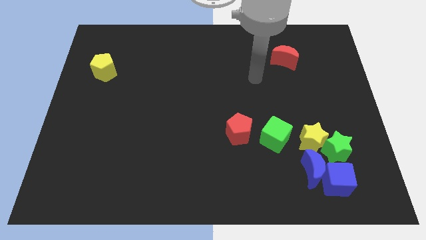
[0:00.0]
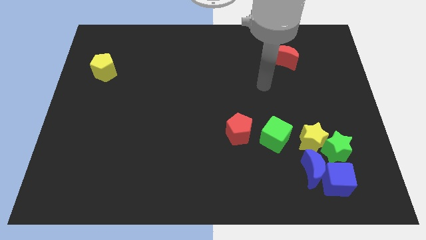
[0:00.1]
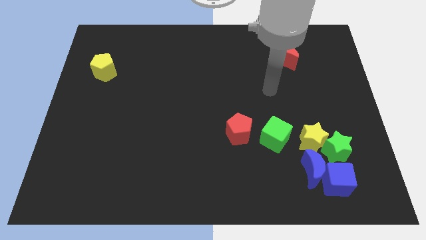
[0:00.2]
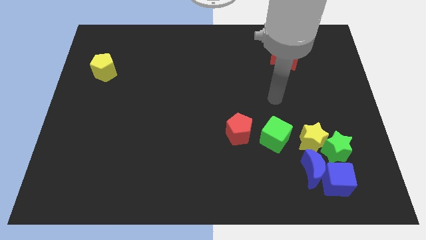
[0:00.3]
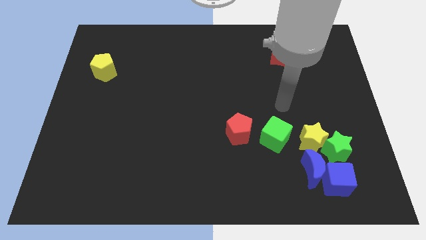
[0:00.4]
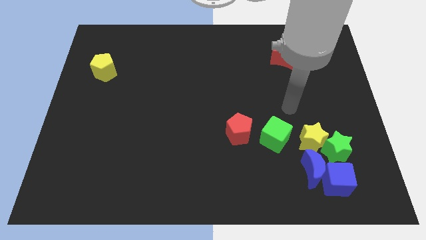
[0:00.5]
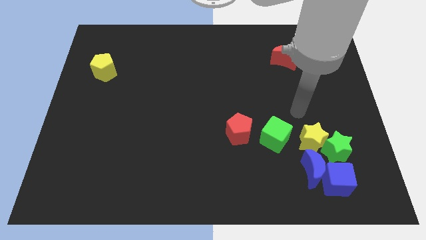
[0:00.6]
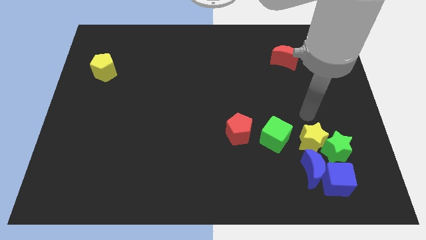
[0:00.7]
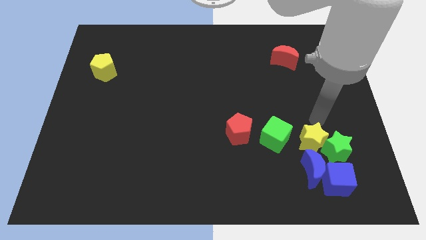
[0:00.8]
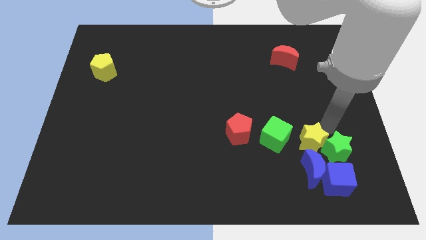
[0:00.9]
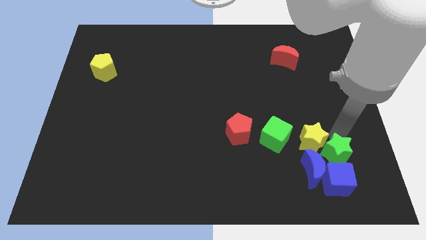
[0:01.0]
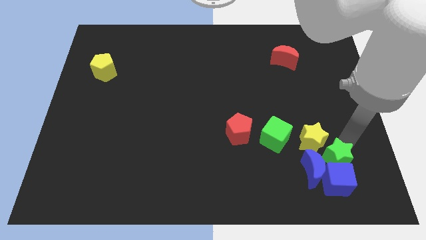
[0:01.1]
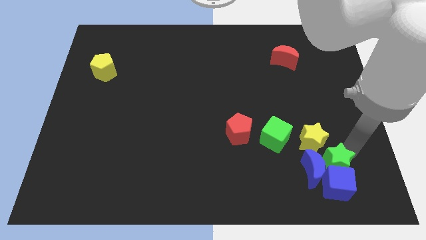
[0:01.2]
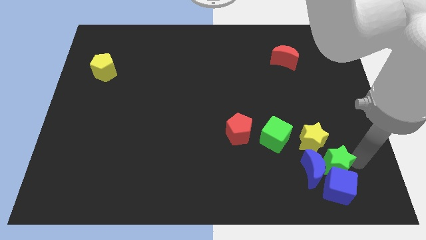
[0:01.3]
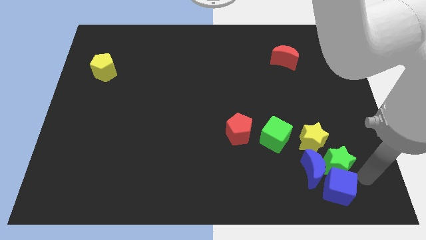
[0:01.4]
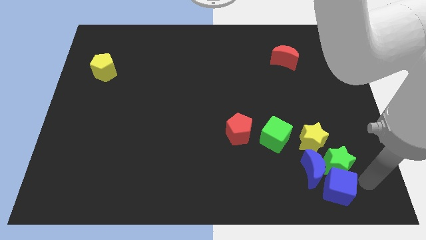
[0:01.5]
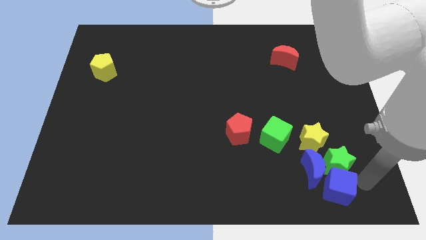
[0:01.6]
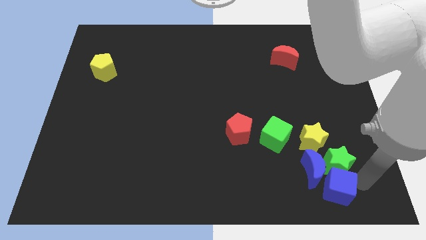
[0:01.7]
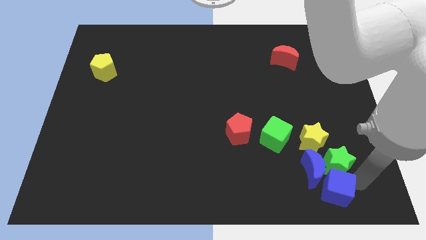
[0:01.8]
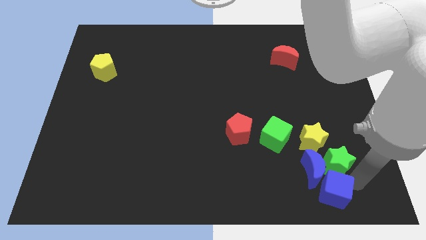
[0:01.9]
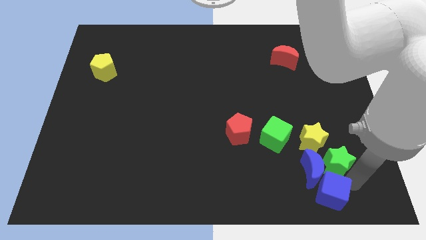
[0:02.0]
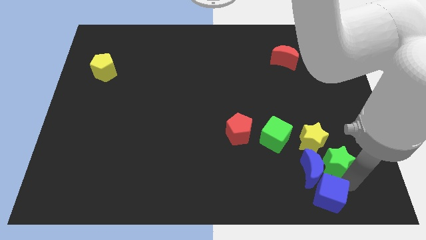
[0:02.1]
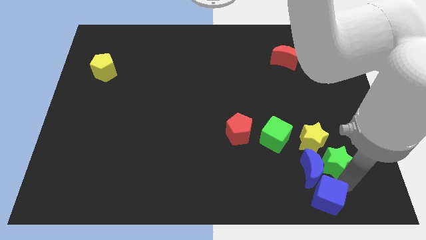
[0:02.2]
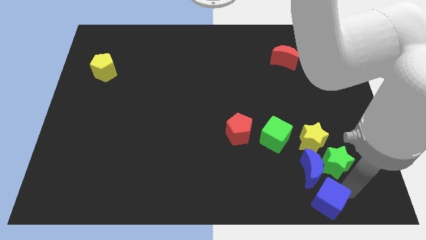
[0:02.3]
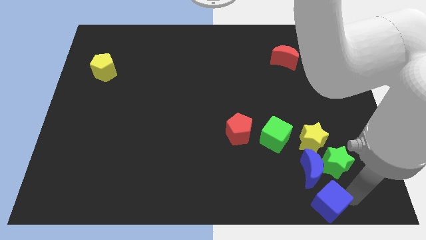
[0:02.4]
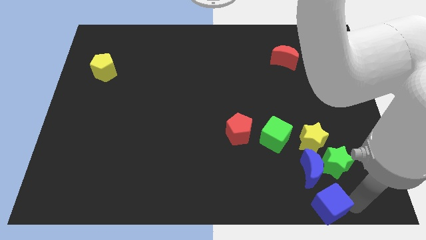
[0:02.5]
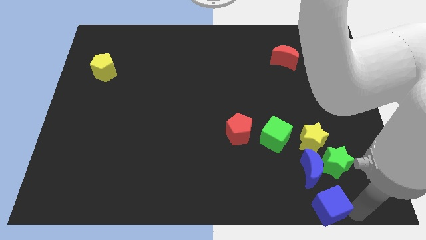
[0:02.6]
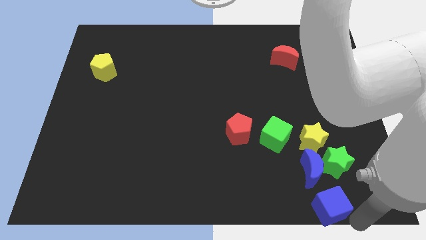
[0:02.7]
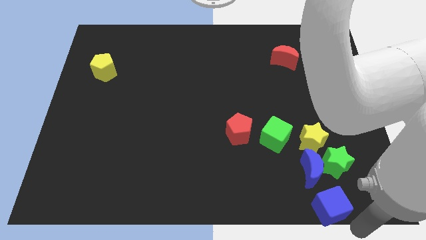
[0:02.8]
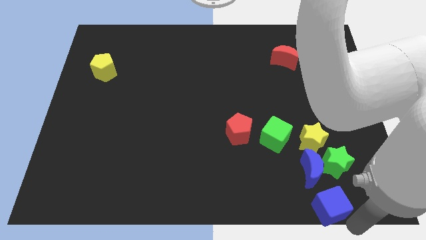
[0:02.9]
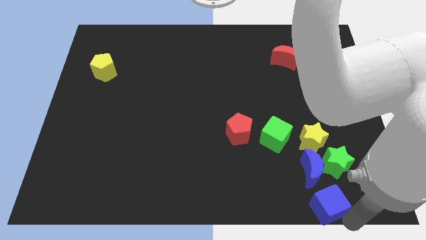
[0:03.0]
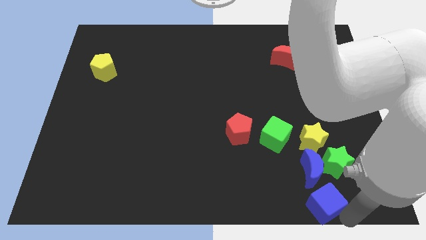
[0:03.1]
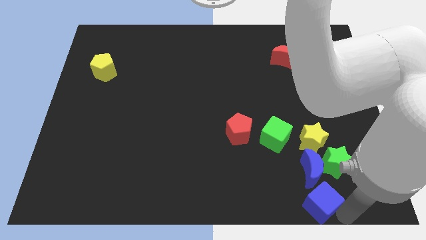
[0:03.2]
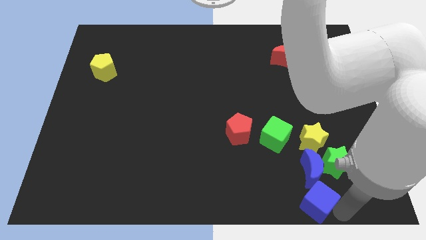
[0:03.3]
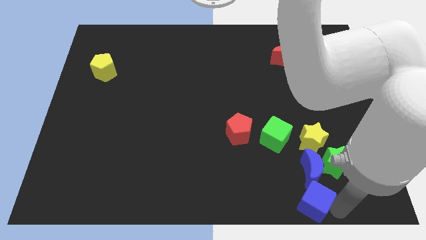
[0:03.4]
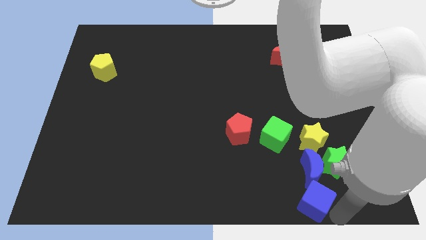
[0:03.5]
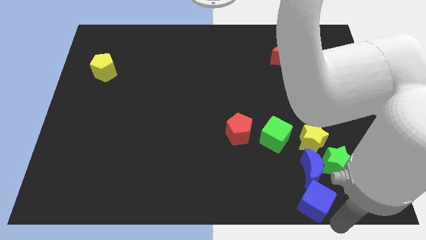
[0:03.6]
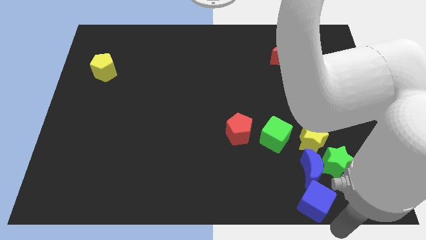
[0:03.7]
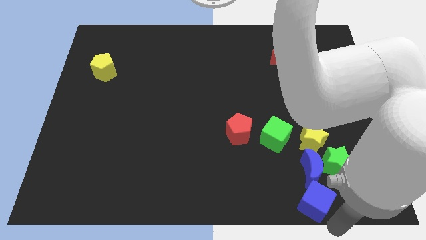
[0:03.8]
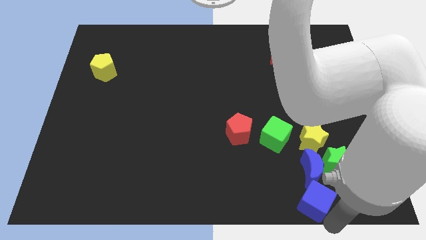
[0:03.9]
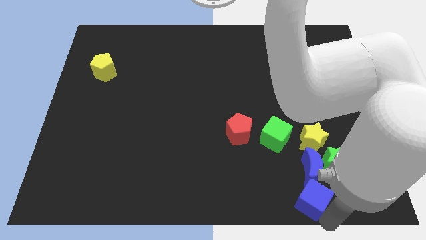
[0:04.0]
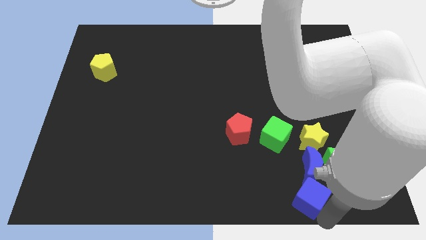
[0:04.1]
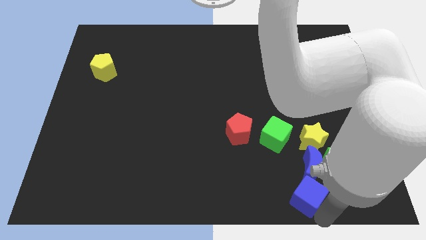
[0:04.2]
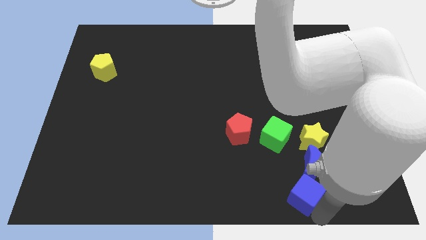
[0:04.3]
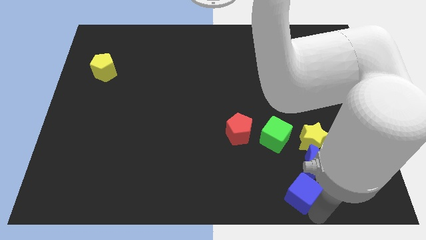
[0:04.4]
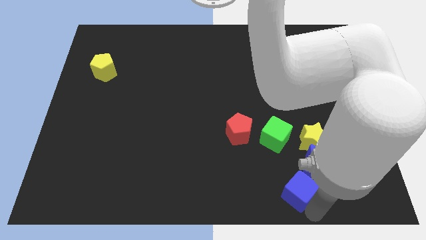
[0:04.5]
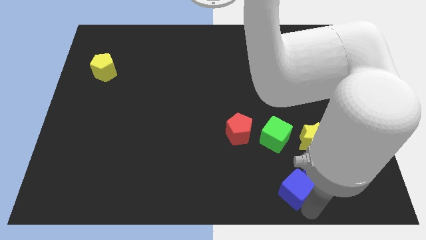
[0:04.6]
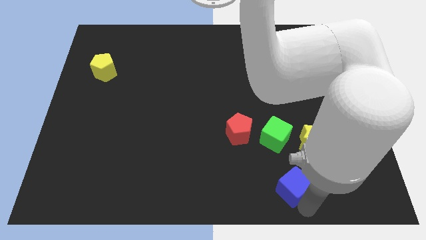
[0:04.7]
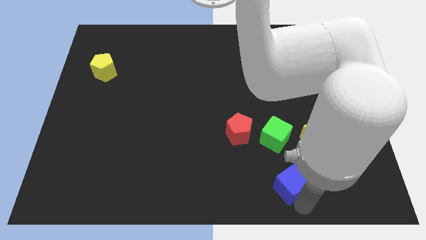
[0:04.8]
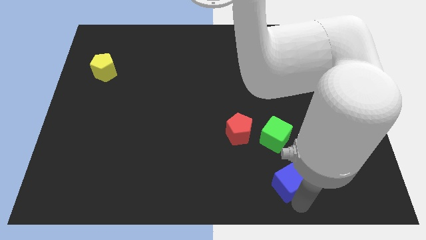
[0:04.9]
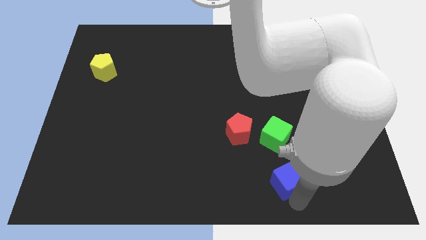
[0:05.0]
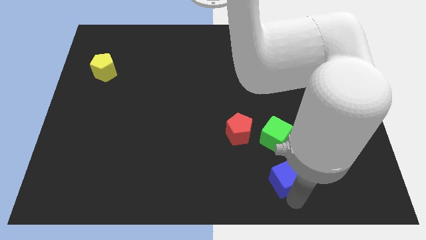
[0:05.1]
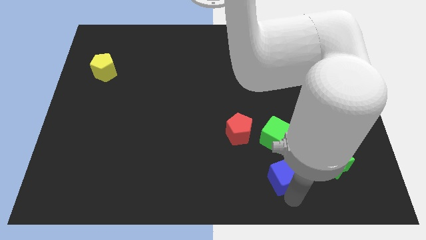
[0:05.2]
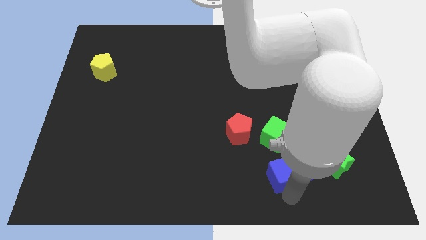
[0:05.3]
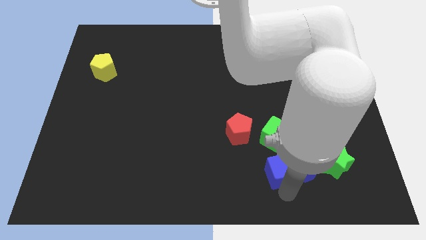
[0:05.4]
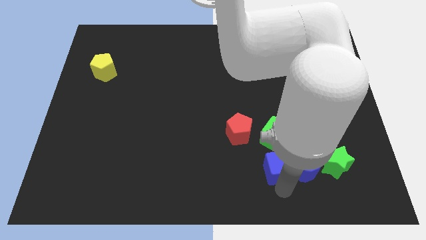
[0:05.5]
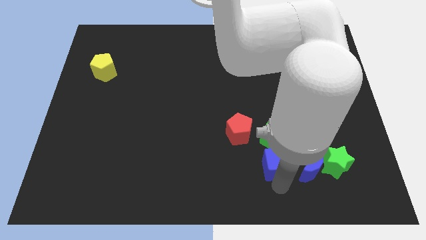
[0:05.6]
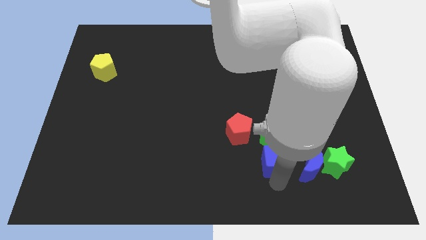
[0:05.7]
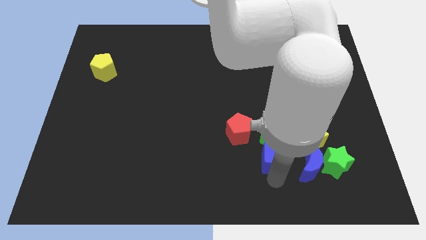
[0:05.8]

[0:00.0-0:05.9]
slide the blue cube close to the green cube

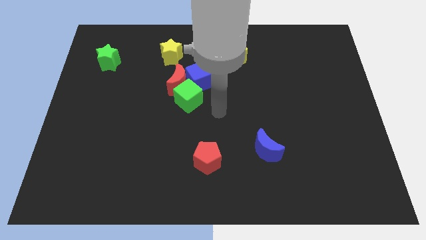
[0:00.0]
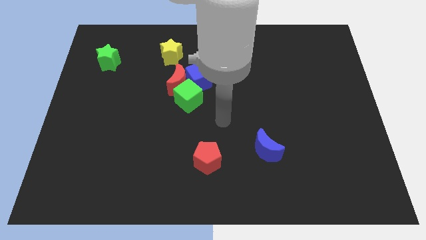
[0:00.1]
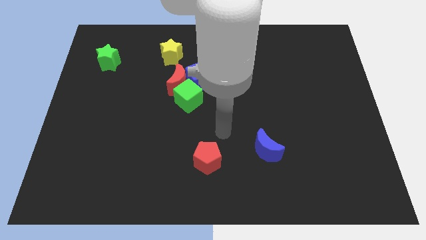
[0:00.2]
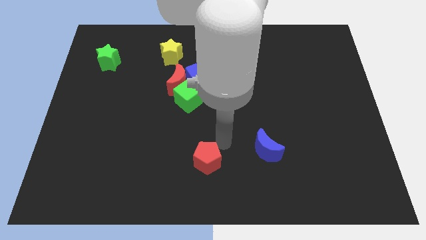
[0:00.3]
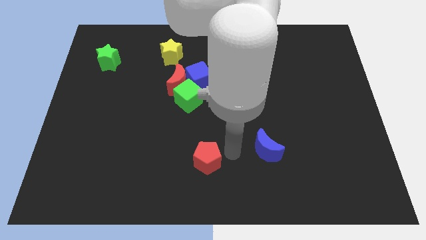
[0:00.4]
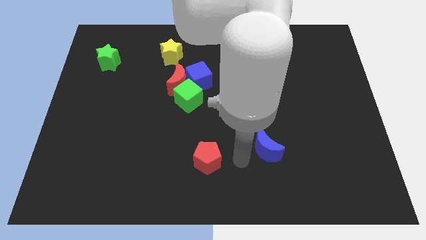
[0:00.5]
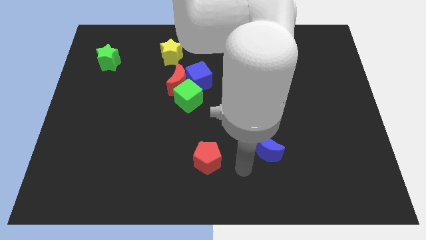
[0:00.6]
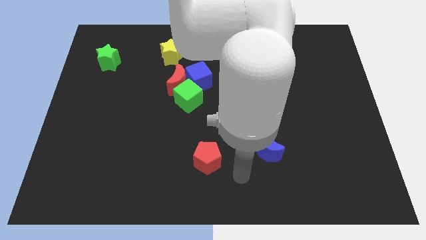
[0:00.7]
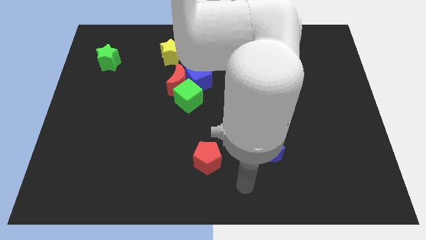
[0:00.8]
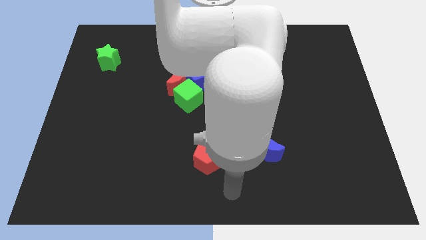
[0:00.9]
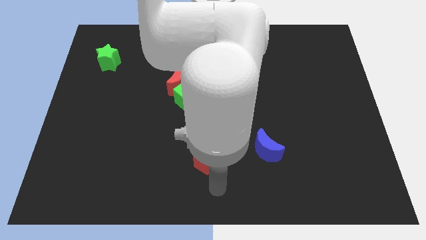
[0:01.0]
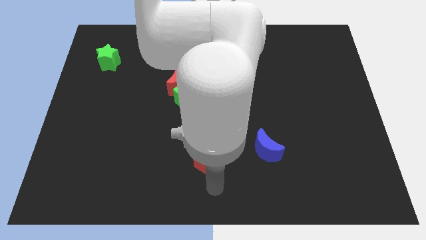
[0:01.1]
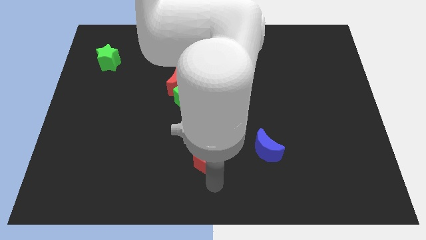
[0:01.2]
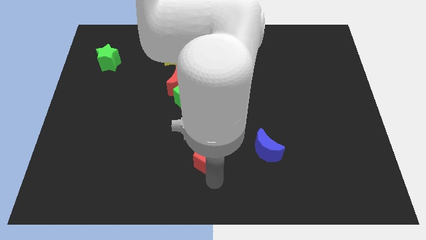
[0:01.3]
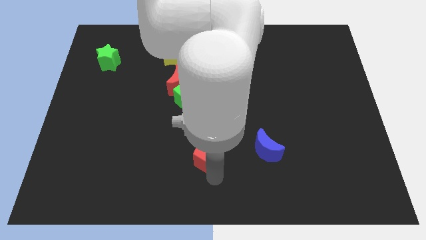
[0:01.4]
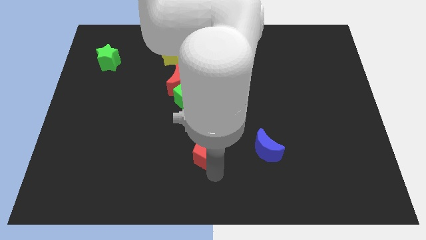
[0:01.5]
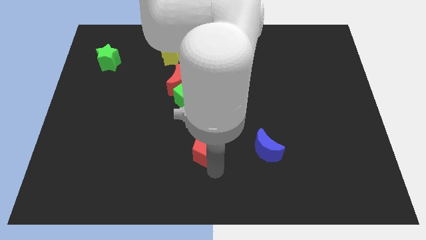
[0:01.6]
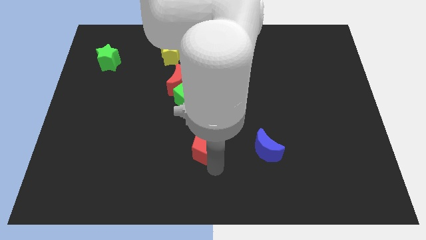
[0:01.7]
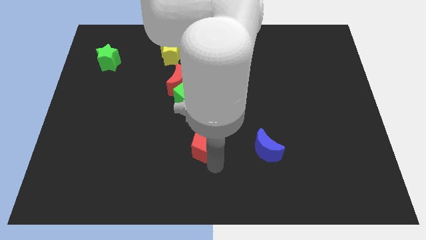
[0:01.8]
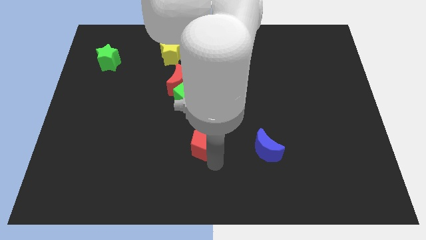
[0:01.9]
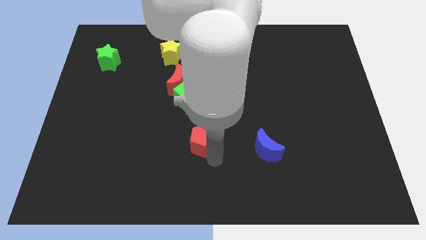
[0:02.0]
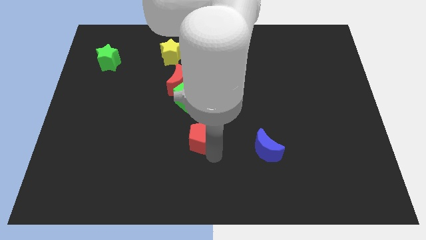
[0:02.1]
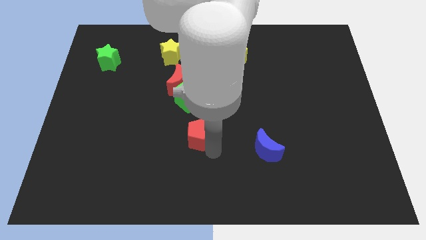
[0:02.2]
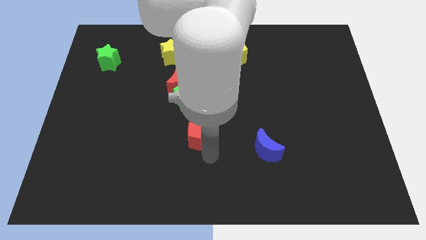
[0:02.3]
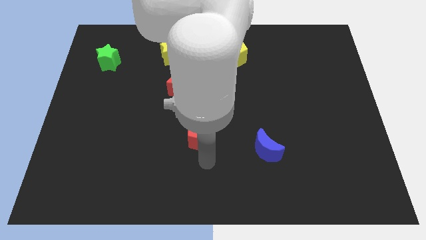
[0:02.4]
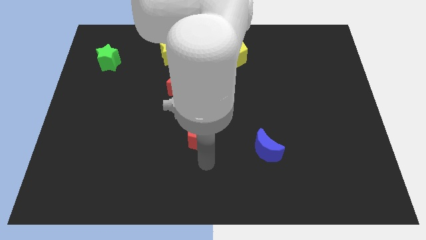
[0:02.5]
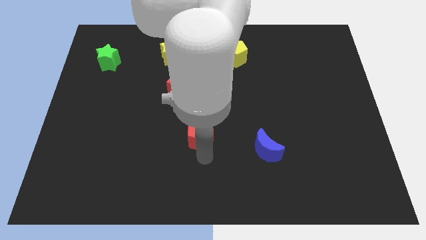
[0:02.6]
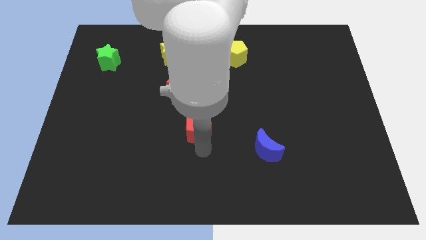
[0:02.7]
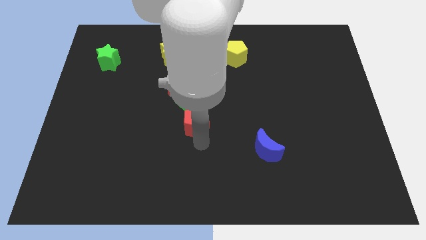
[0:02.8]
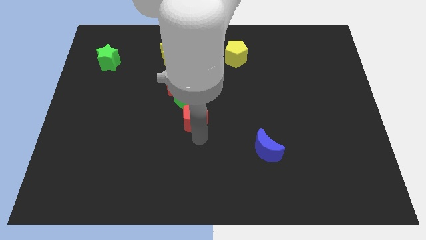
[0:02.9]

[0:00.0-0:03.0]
move the red pentagon close to the green cube
